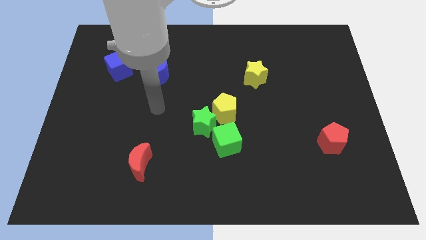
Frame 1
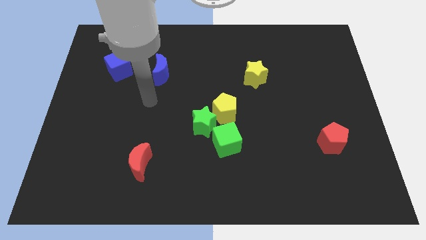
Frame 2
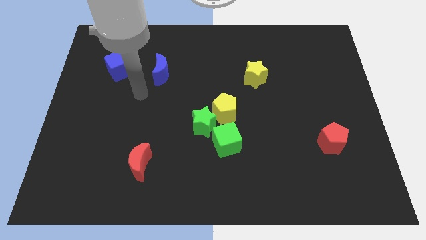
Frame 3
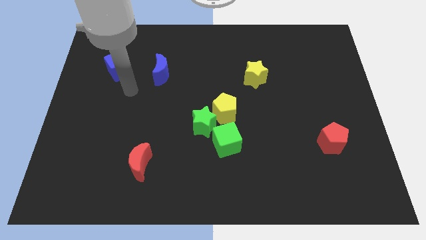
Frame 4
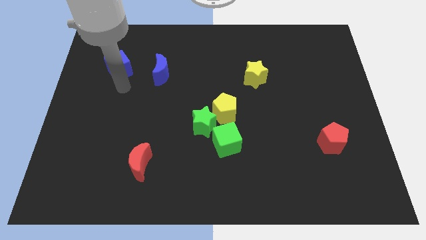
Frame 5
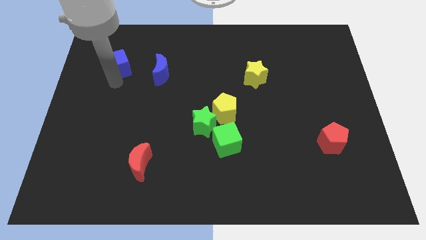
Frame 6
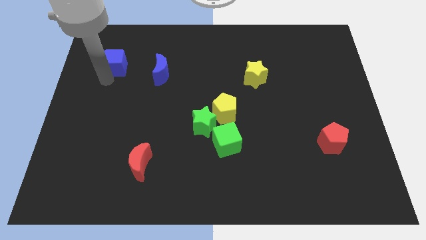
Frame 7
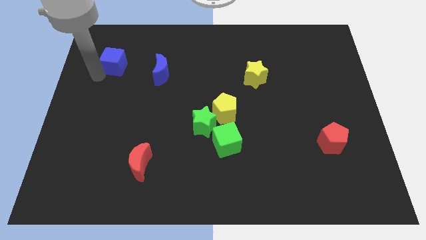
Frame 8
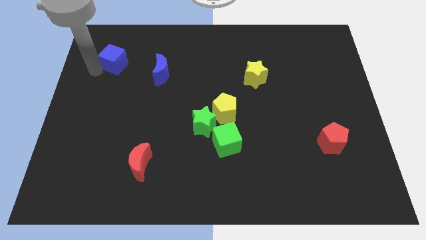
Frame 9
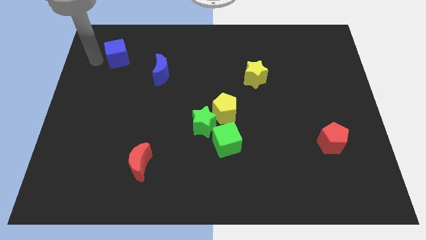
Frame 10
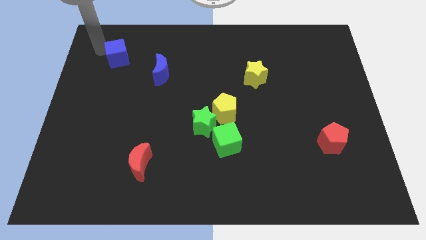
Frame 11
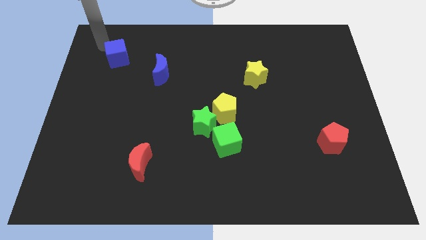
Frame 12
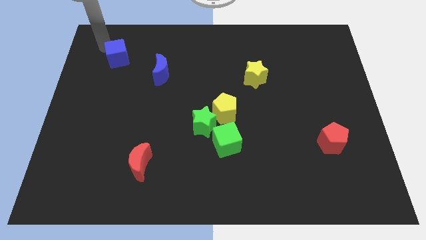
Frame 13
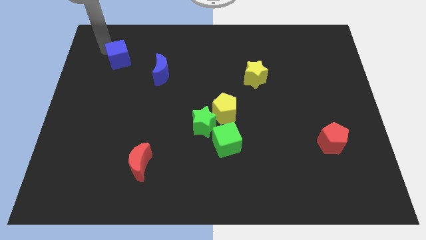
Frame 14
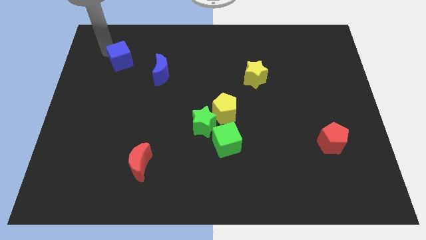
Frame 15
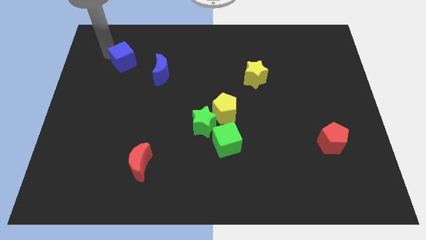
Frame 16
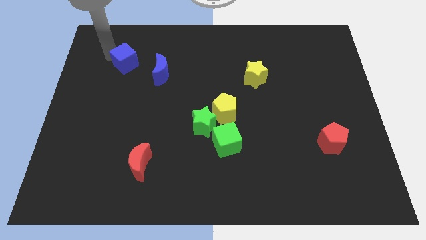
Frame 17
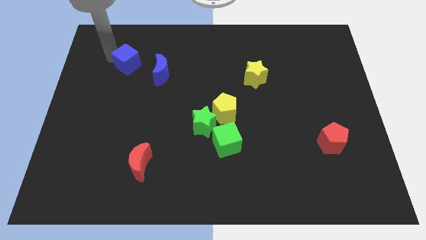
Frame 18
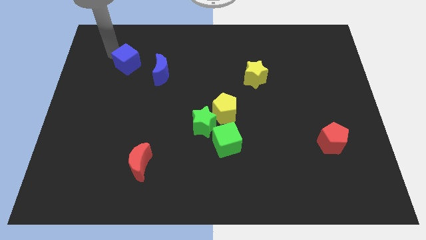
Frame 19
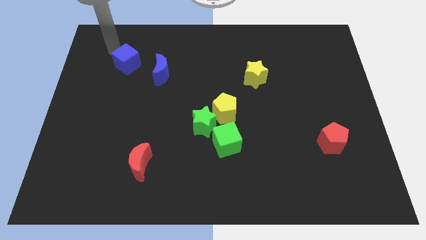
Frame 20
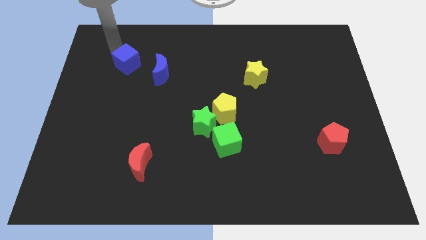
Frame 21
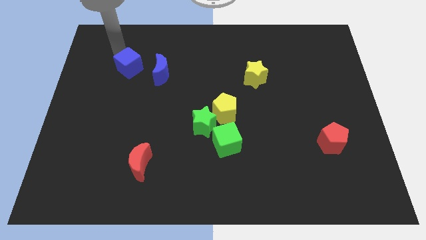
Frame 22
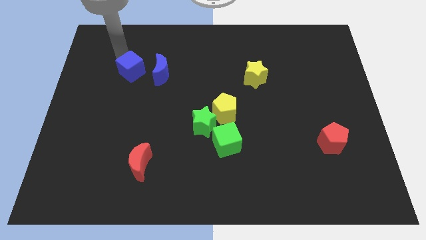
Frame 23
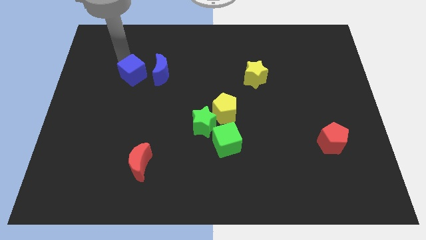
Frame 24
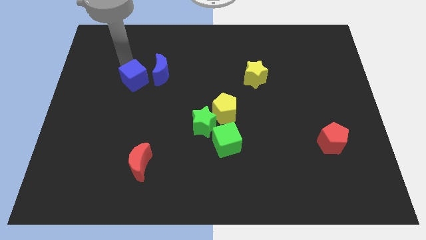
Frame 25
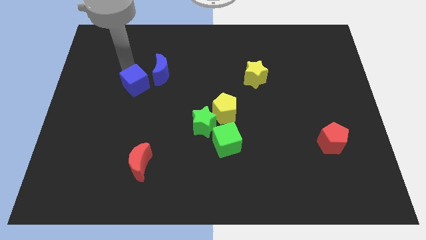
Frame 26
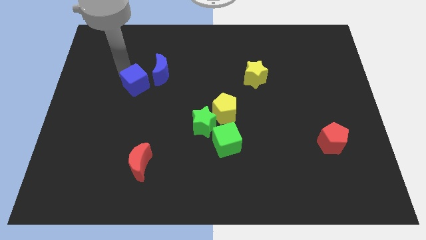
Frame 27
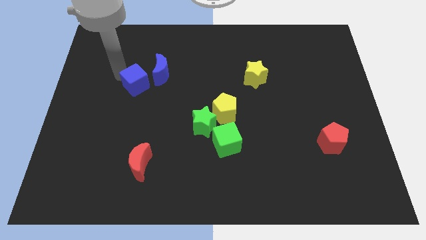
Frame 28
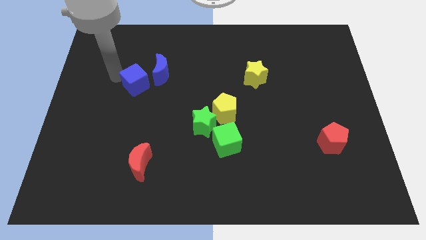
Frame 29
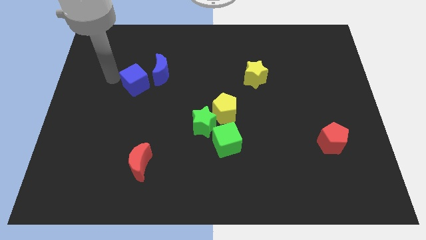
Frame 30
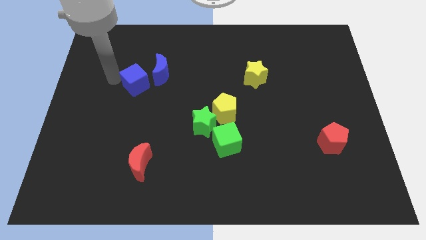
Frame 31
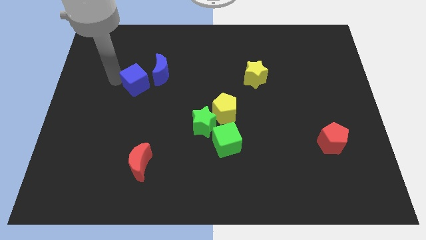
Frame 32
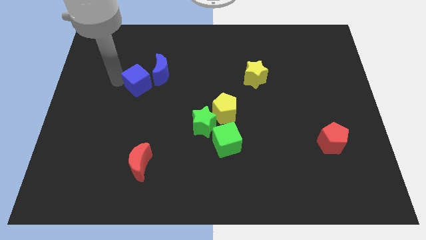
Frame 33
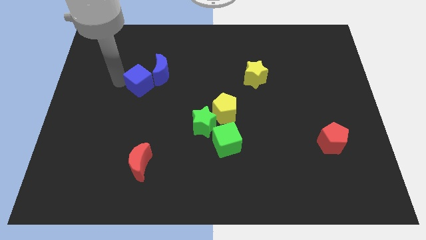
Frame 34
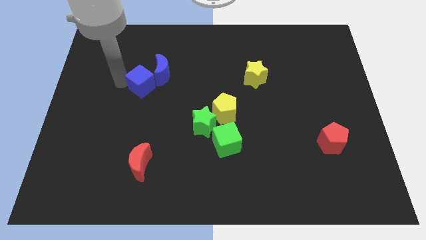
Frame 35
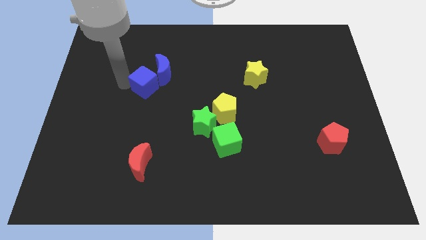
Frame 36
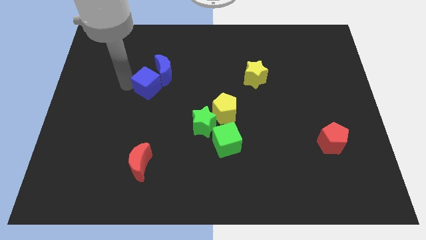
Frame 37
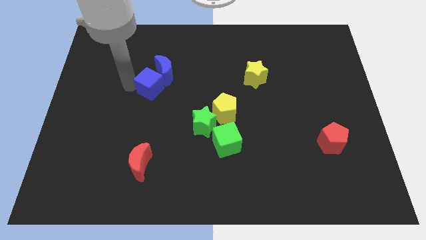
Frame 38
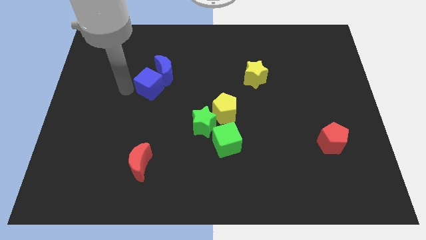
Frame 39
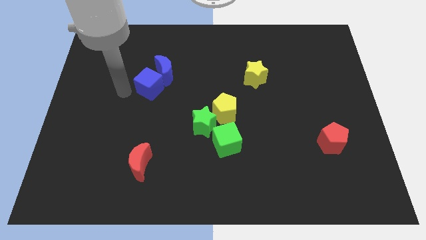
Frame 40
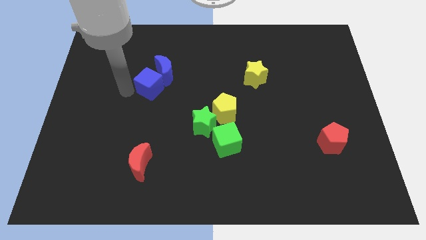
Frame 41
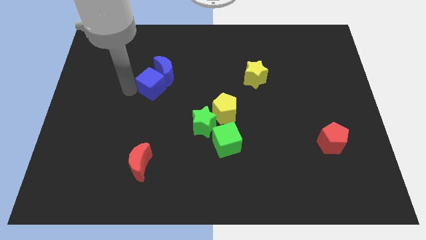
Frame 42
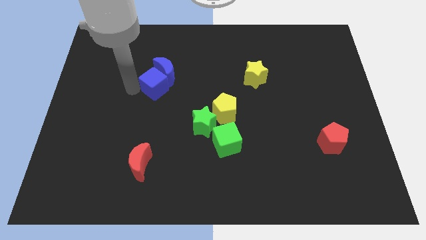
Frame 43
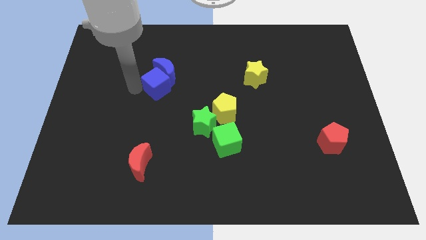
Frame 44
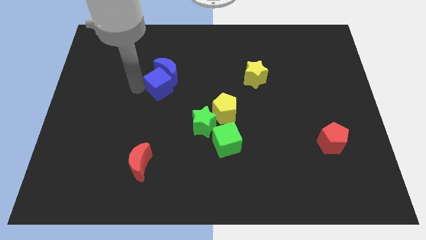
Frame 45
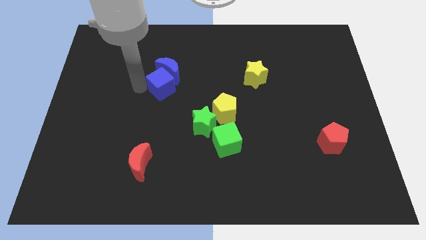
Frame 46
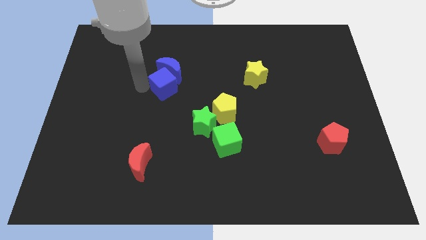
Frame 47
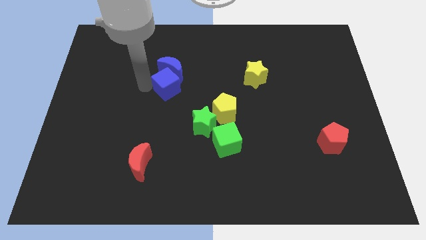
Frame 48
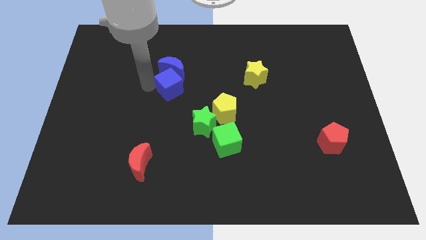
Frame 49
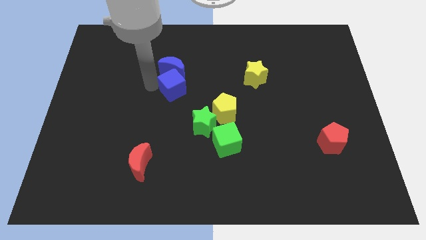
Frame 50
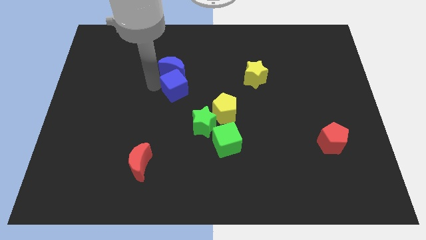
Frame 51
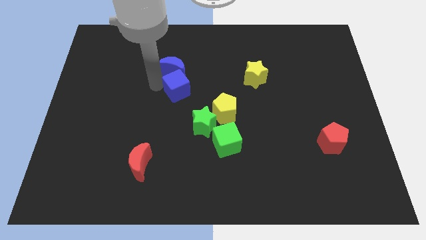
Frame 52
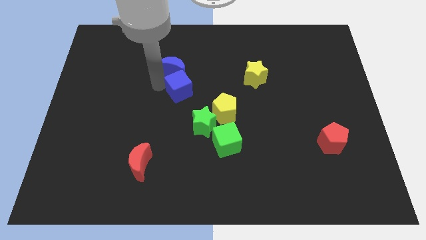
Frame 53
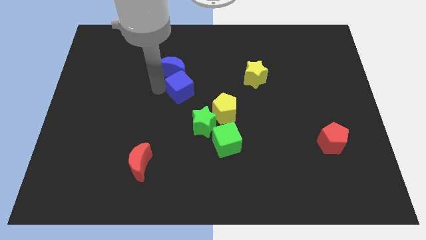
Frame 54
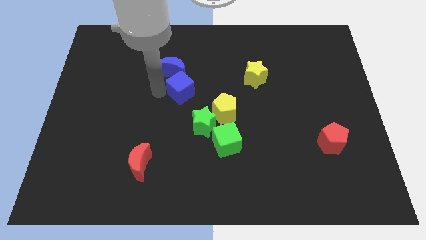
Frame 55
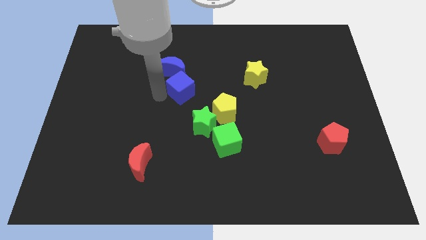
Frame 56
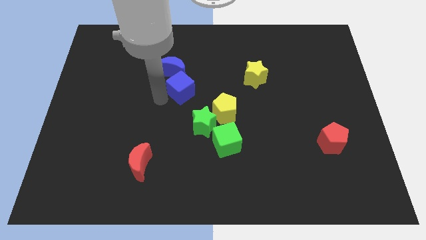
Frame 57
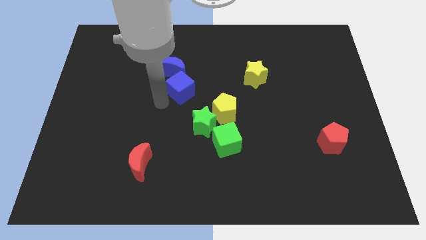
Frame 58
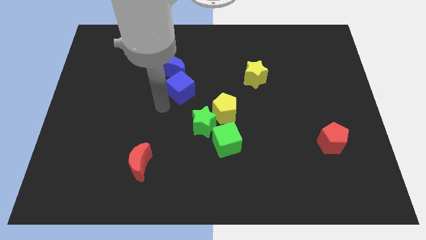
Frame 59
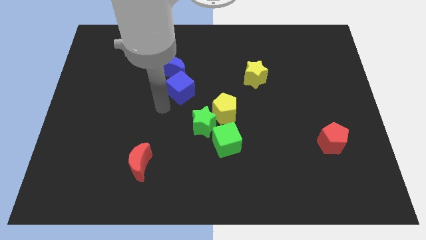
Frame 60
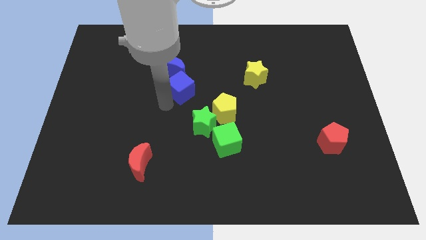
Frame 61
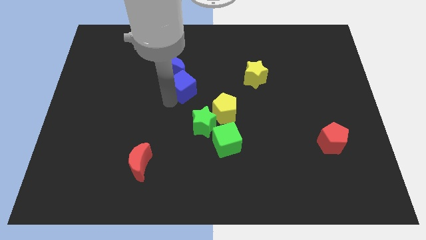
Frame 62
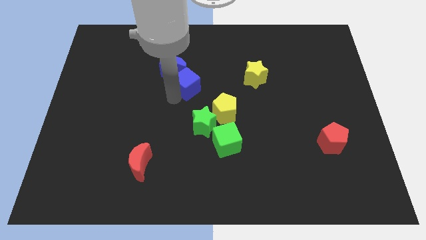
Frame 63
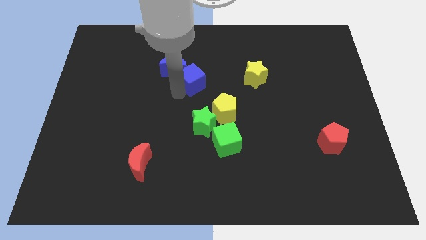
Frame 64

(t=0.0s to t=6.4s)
put the blue cube to the left side of the yellow star

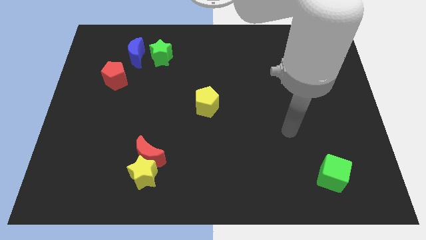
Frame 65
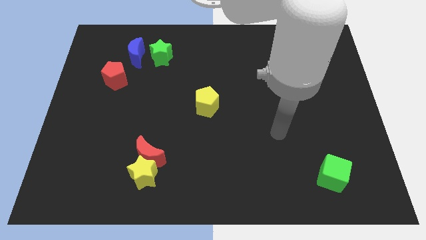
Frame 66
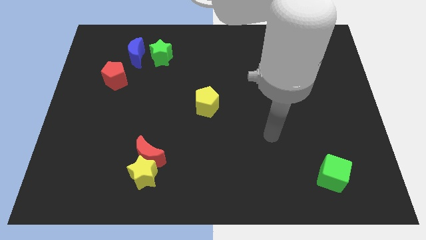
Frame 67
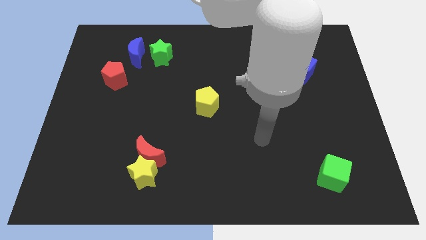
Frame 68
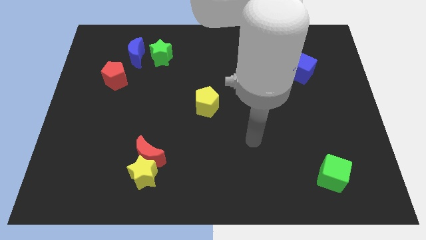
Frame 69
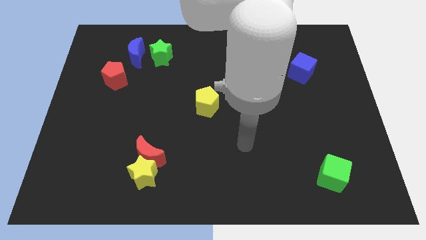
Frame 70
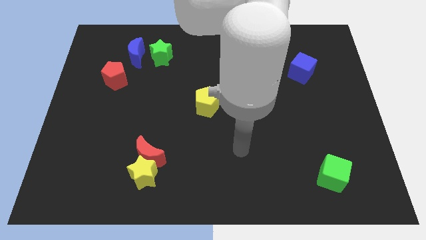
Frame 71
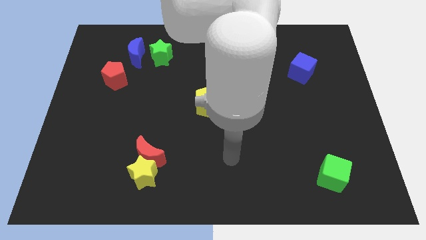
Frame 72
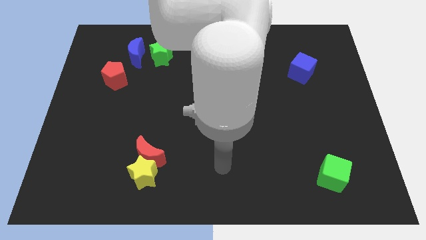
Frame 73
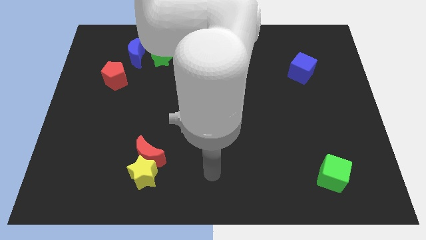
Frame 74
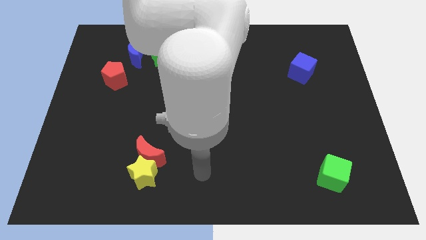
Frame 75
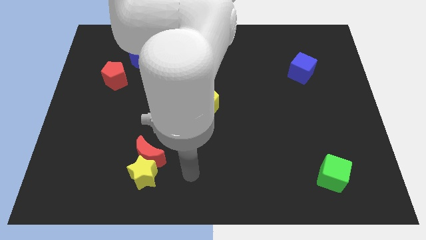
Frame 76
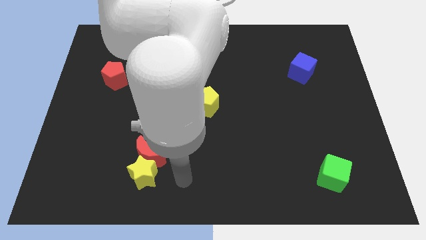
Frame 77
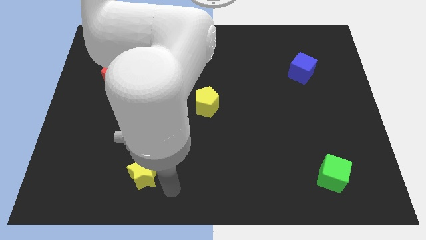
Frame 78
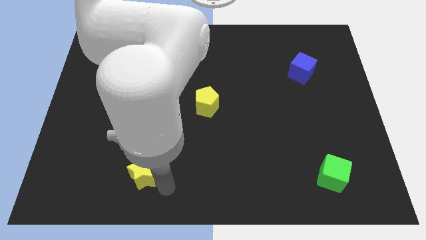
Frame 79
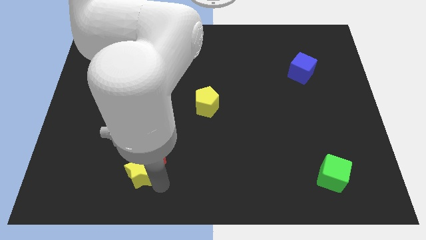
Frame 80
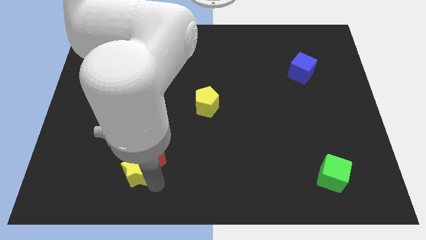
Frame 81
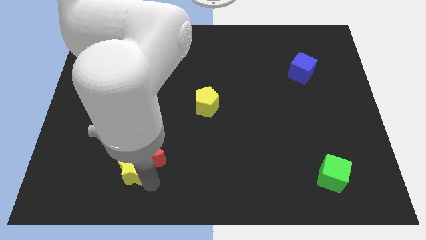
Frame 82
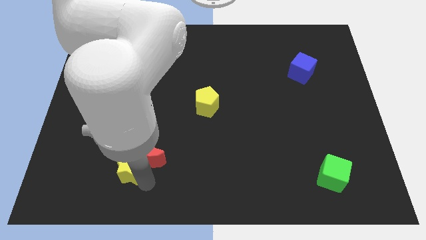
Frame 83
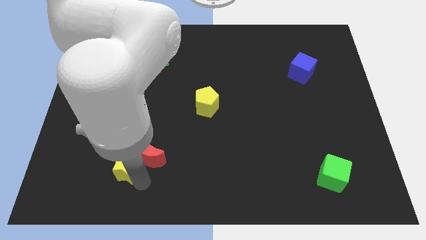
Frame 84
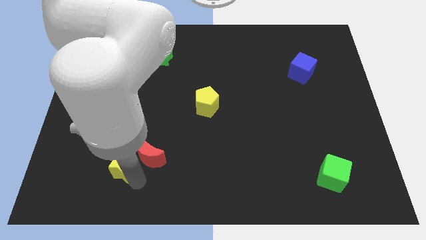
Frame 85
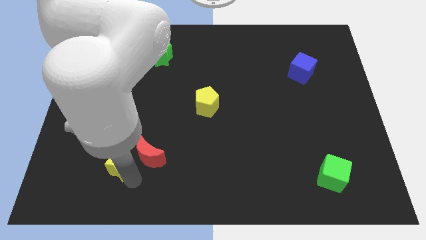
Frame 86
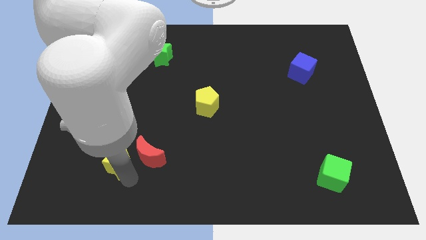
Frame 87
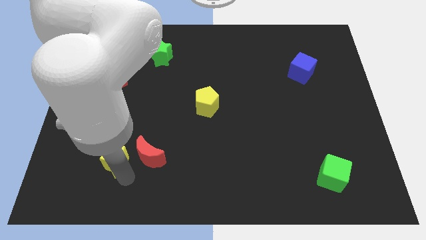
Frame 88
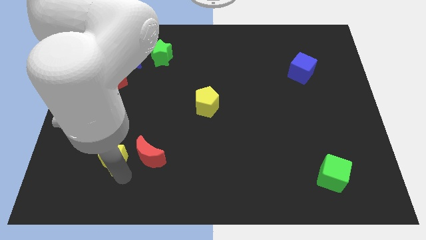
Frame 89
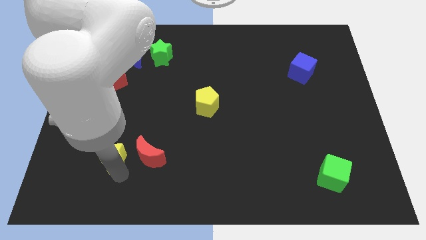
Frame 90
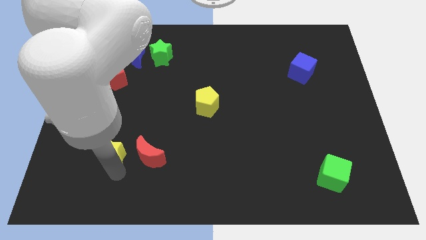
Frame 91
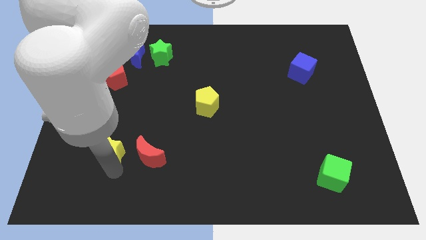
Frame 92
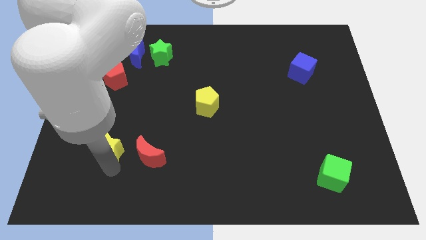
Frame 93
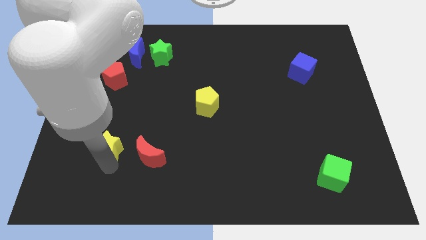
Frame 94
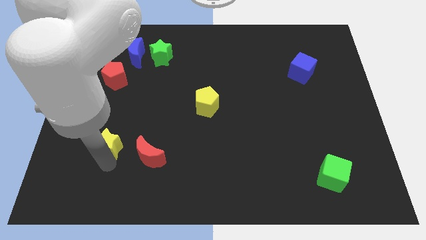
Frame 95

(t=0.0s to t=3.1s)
push the yellow star diagonally up and to the left of the red moon
